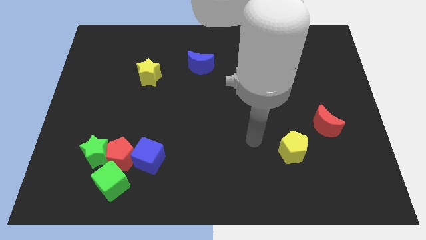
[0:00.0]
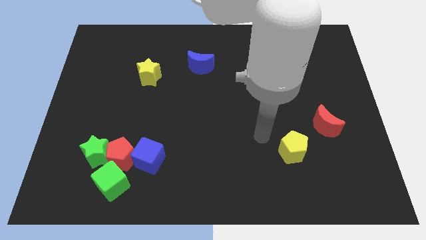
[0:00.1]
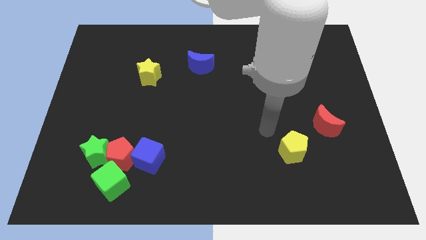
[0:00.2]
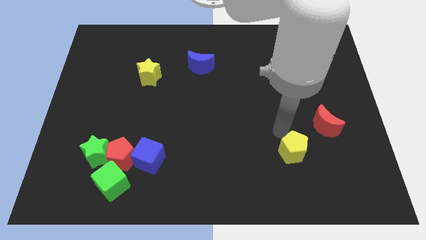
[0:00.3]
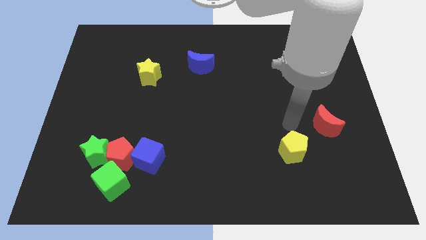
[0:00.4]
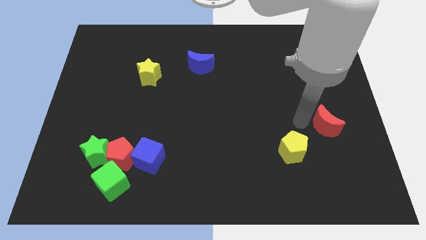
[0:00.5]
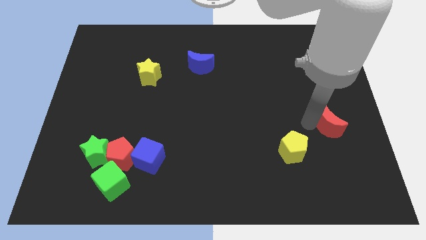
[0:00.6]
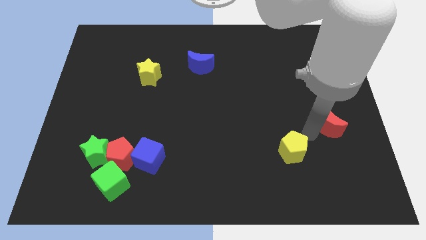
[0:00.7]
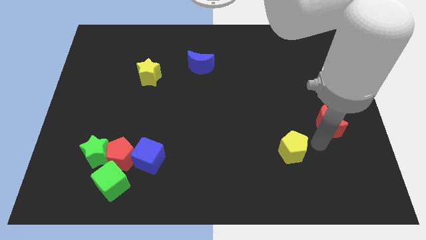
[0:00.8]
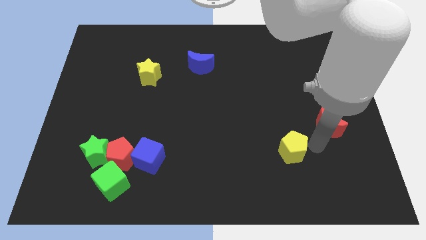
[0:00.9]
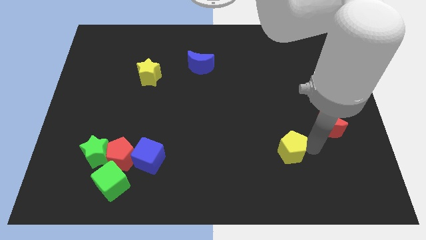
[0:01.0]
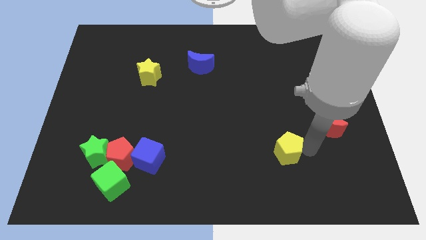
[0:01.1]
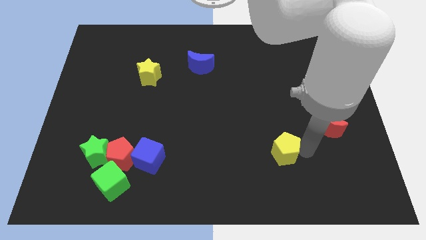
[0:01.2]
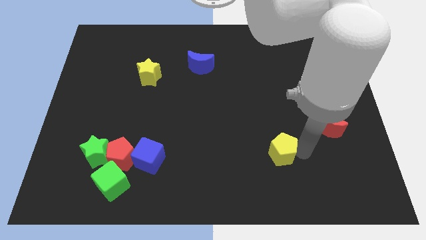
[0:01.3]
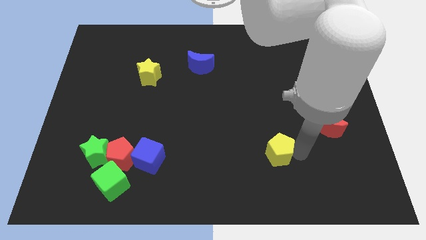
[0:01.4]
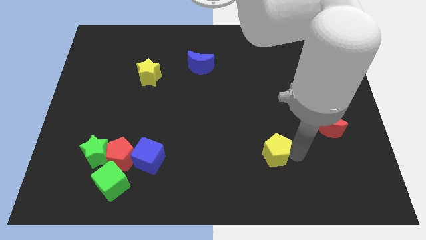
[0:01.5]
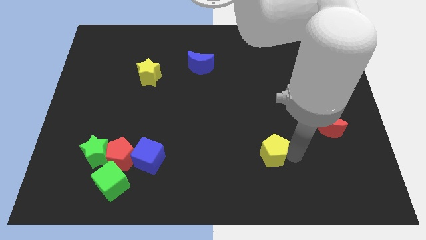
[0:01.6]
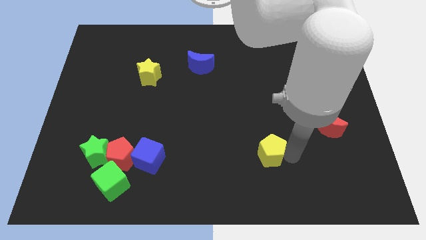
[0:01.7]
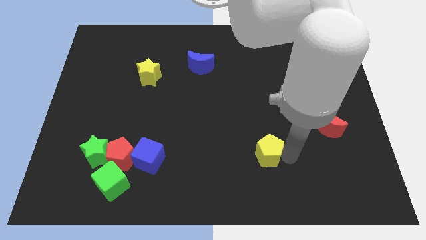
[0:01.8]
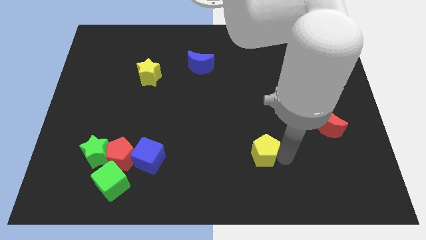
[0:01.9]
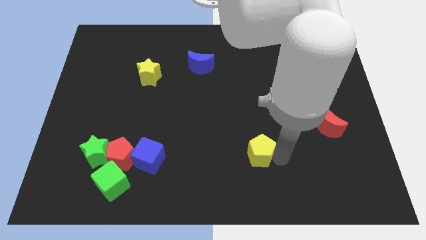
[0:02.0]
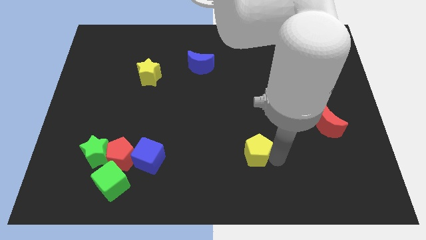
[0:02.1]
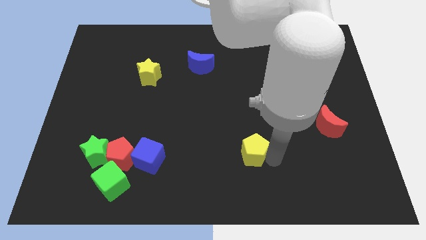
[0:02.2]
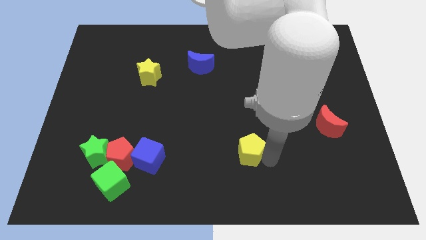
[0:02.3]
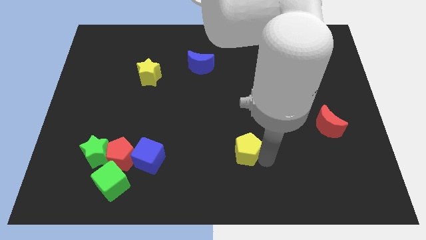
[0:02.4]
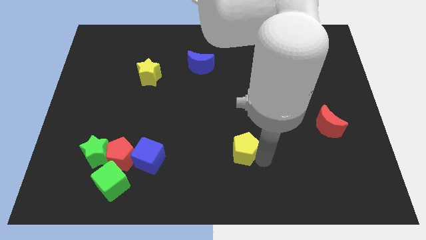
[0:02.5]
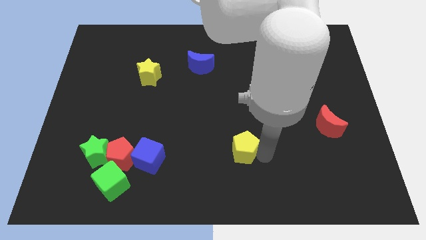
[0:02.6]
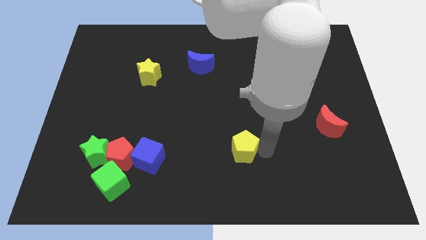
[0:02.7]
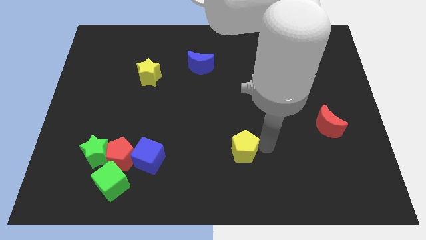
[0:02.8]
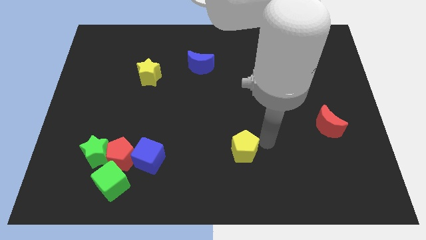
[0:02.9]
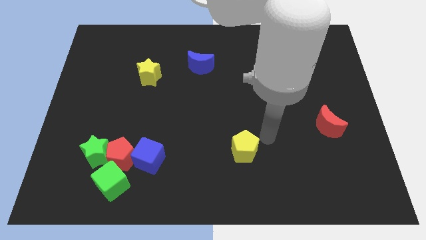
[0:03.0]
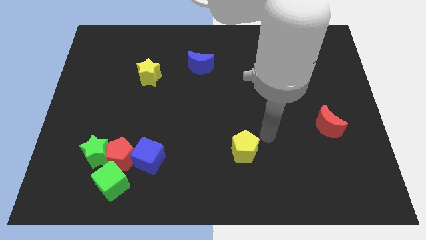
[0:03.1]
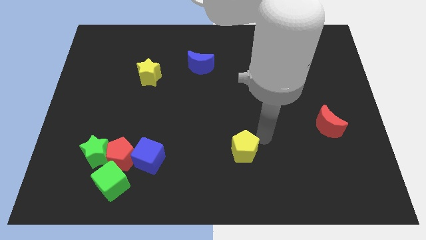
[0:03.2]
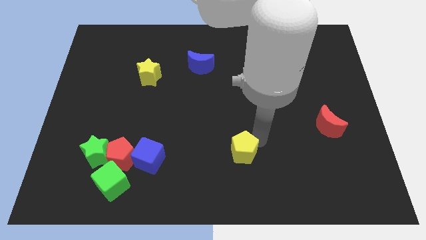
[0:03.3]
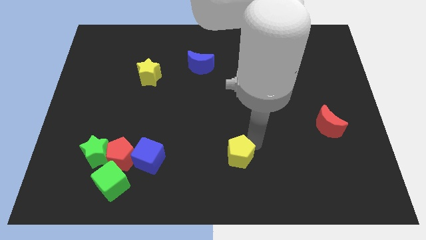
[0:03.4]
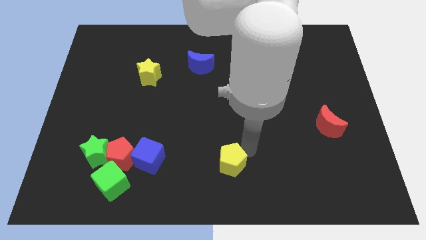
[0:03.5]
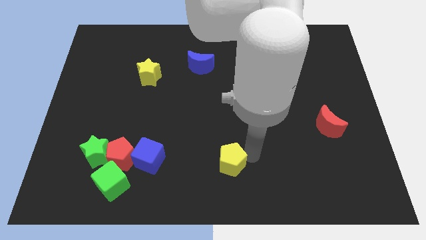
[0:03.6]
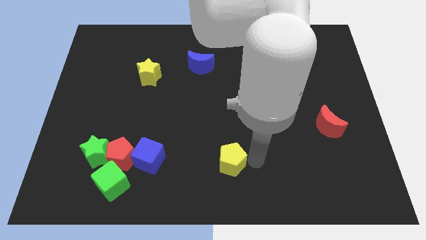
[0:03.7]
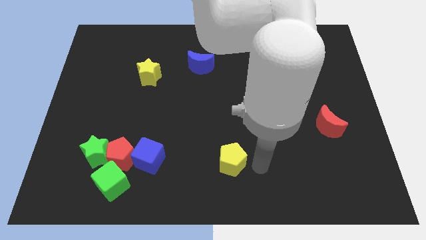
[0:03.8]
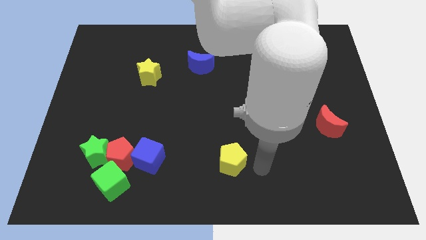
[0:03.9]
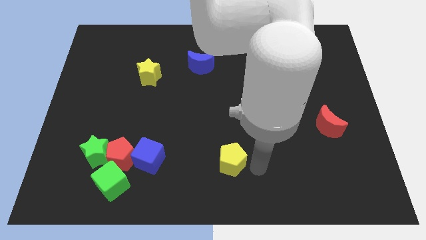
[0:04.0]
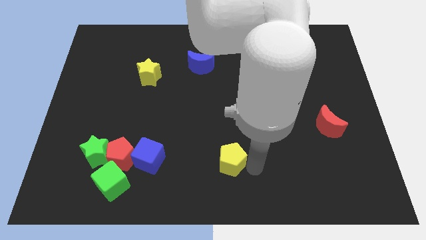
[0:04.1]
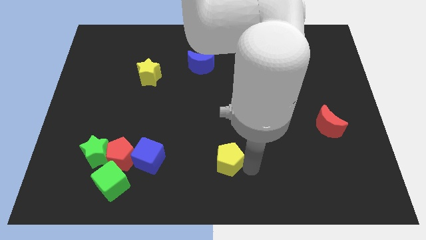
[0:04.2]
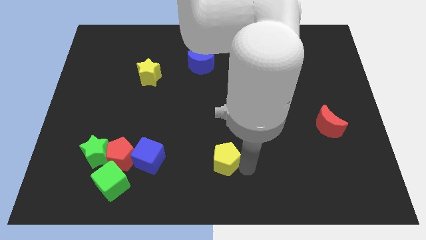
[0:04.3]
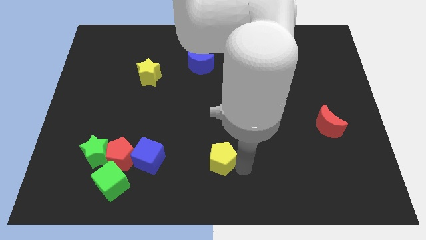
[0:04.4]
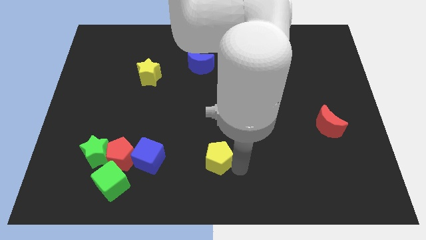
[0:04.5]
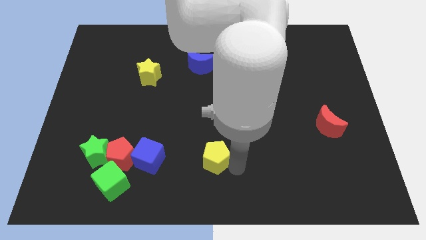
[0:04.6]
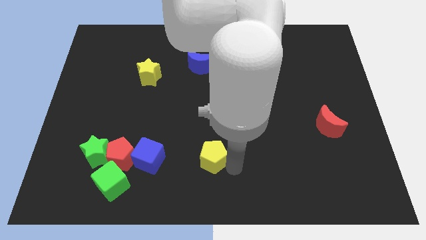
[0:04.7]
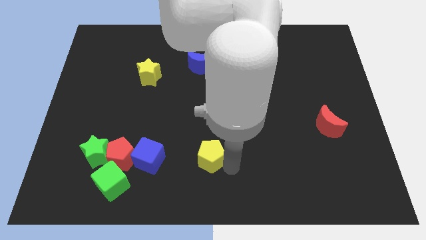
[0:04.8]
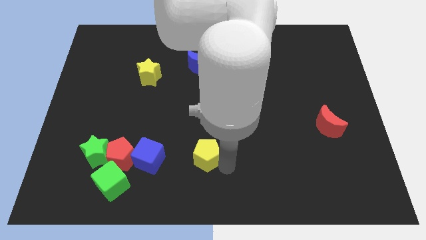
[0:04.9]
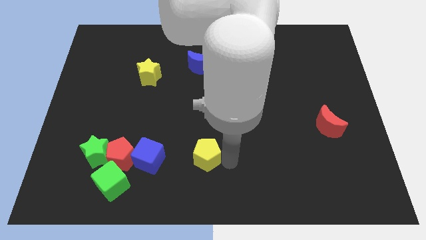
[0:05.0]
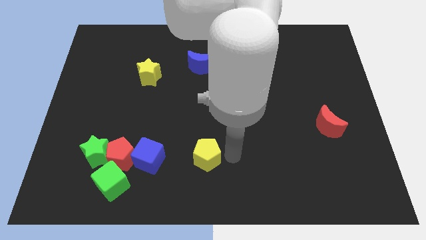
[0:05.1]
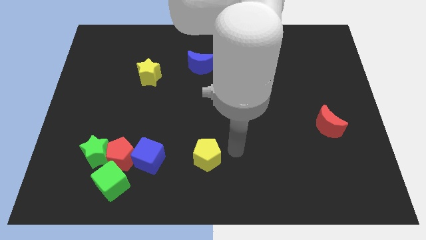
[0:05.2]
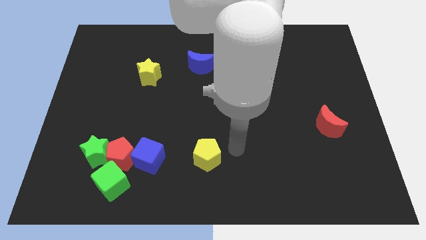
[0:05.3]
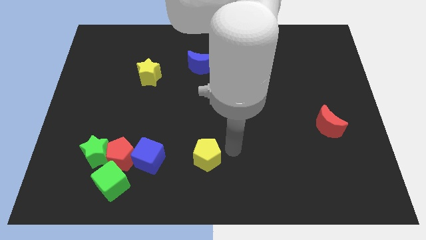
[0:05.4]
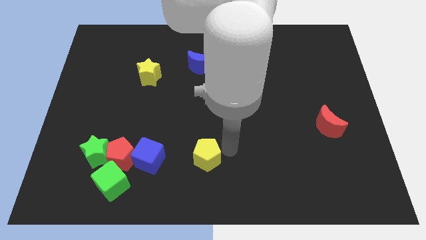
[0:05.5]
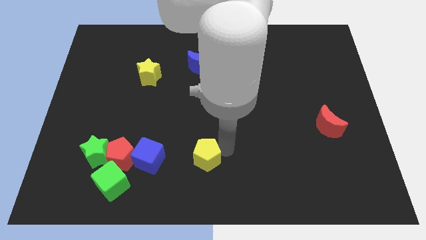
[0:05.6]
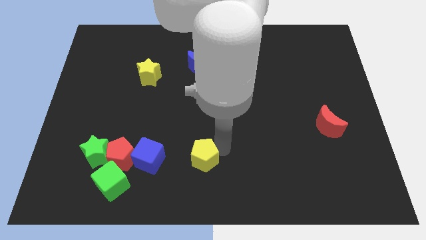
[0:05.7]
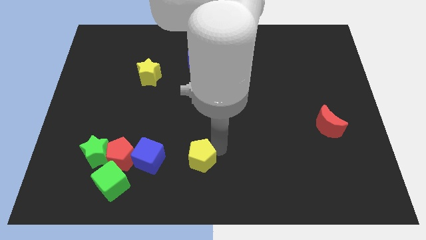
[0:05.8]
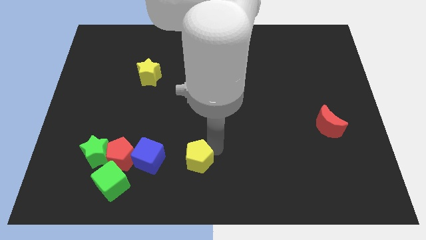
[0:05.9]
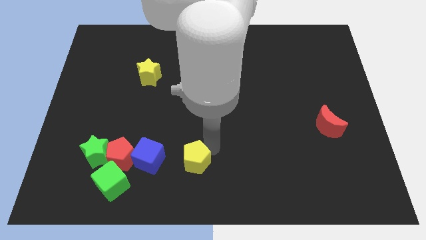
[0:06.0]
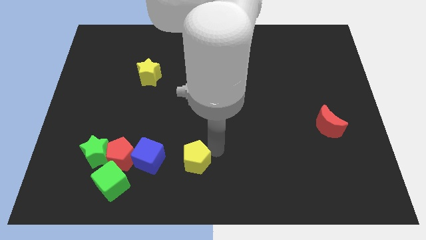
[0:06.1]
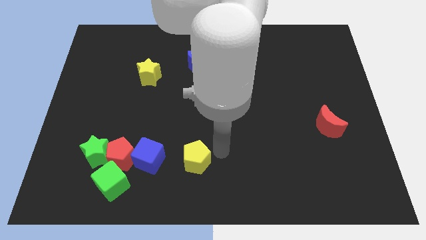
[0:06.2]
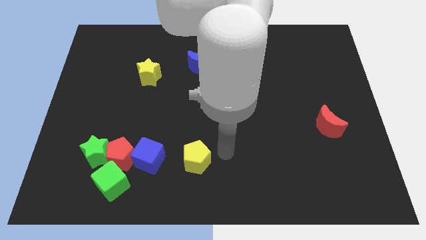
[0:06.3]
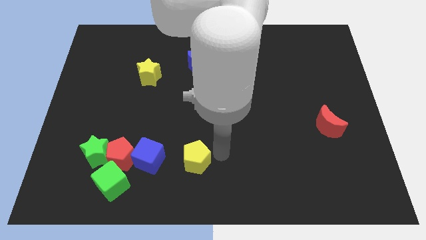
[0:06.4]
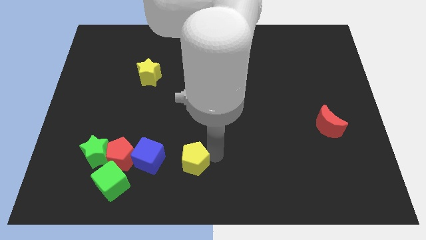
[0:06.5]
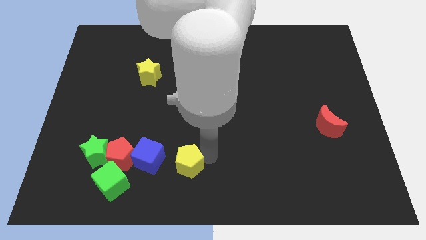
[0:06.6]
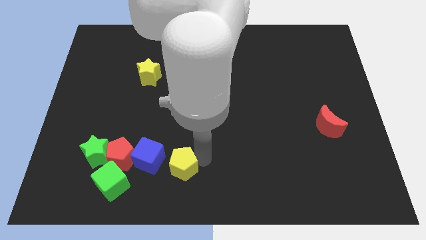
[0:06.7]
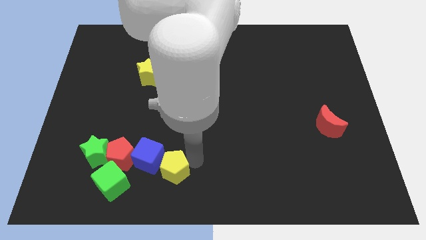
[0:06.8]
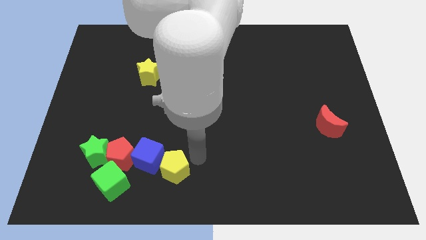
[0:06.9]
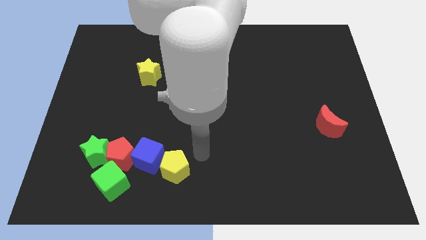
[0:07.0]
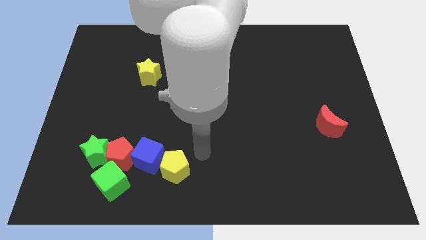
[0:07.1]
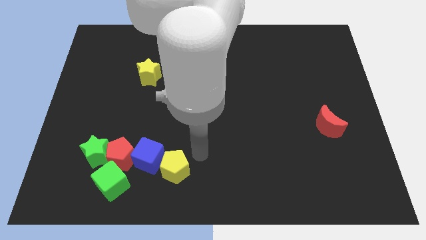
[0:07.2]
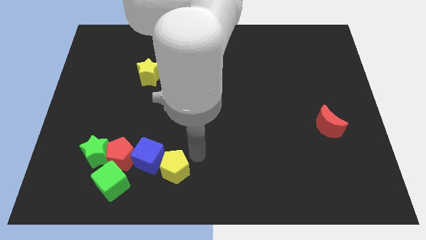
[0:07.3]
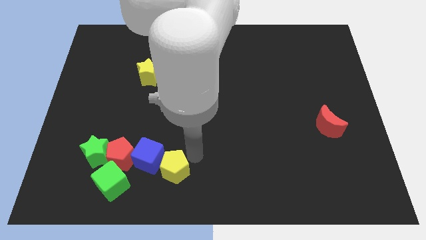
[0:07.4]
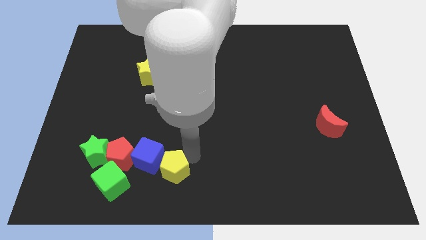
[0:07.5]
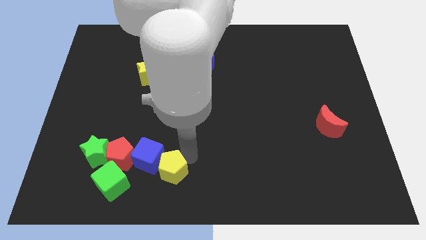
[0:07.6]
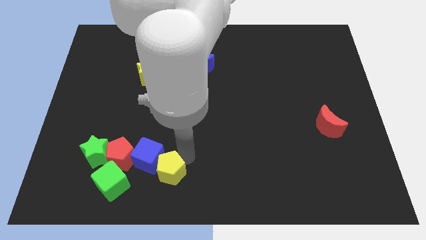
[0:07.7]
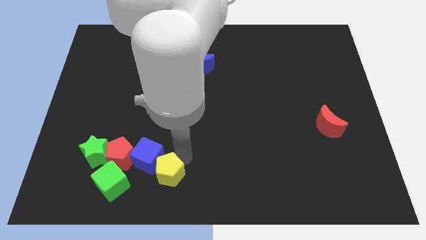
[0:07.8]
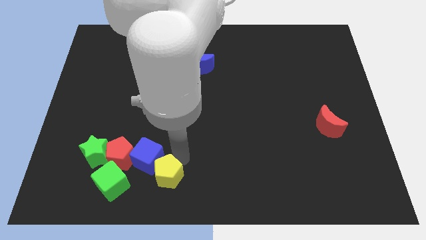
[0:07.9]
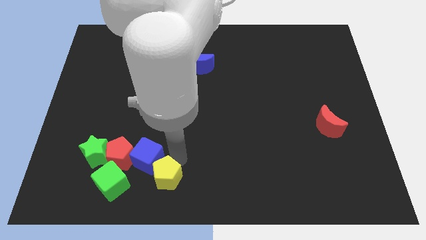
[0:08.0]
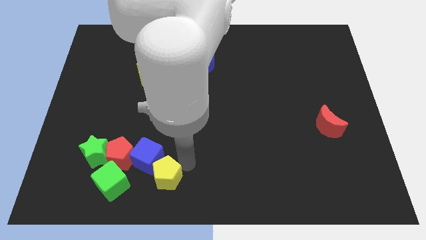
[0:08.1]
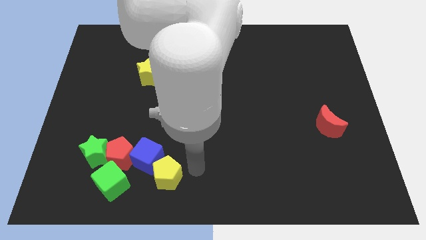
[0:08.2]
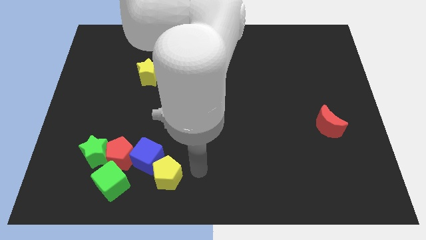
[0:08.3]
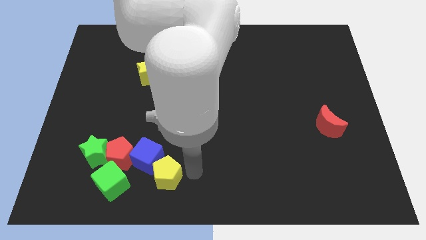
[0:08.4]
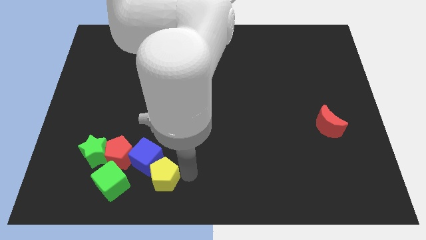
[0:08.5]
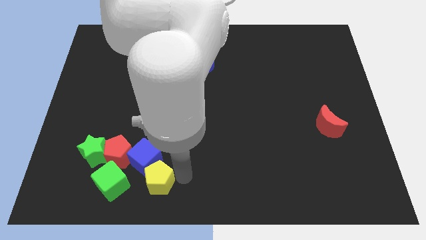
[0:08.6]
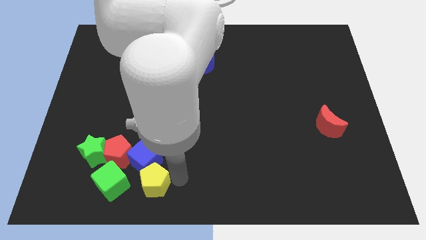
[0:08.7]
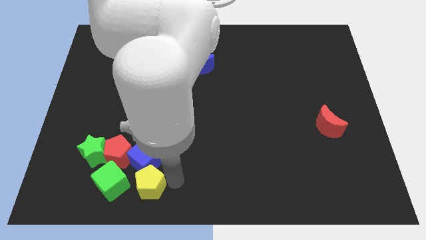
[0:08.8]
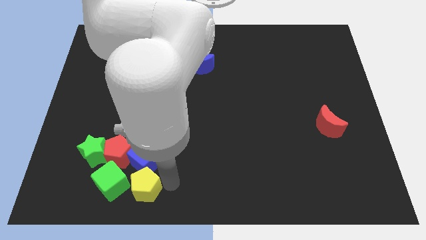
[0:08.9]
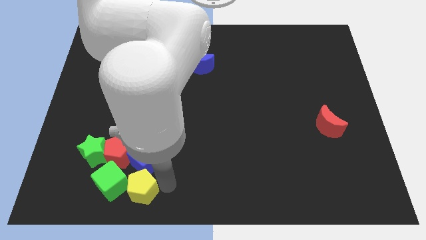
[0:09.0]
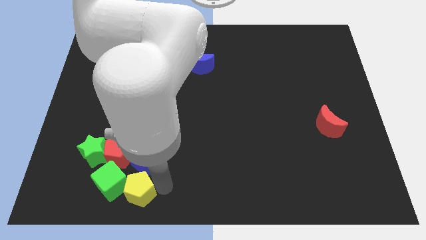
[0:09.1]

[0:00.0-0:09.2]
slide the yellow pentagon close to the green cube
